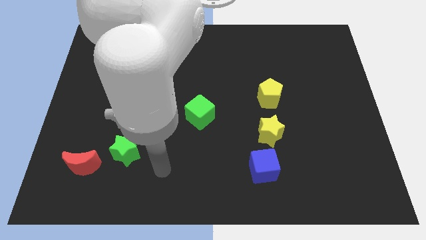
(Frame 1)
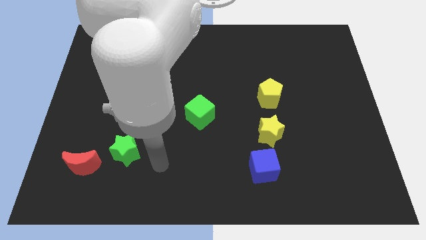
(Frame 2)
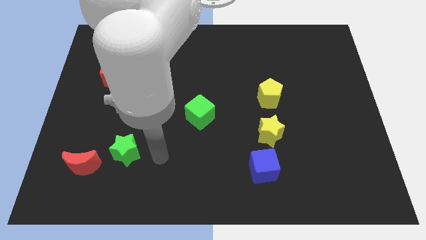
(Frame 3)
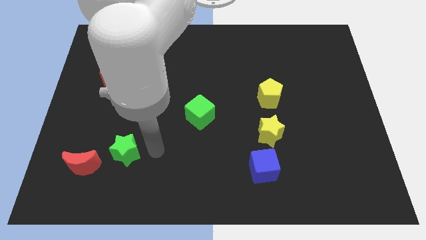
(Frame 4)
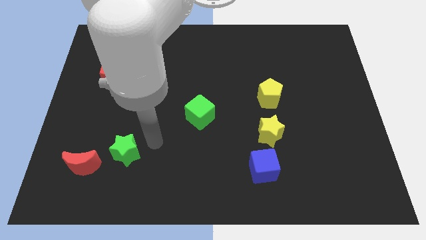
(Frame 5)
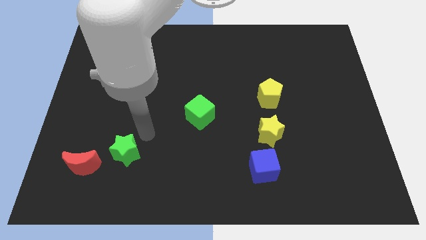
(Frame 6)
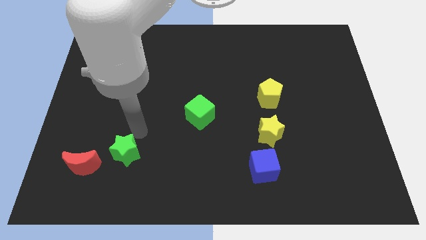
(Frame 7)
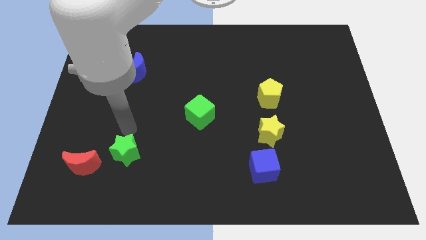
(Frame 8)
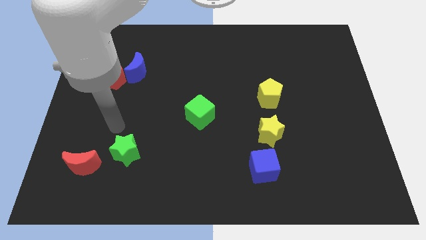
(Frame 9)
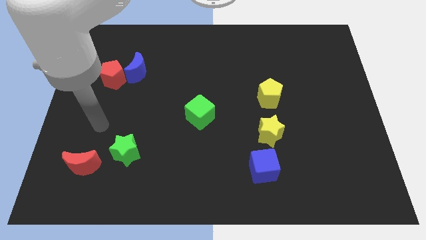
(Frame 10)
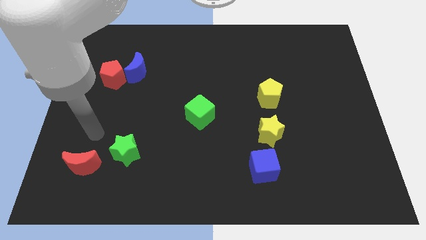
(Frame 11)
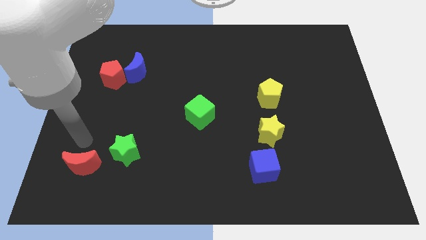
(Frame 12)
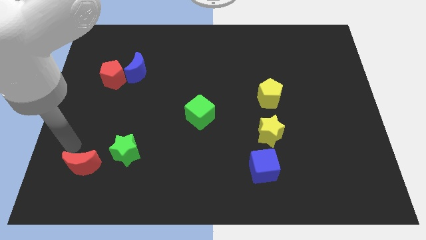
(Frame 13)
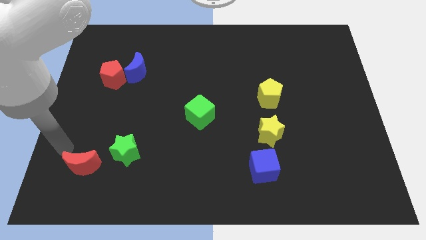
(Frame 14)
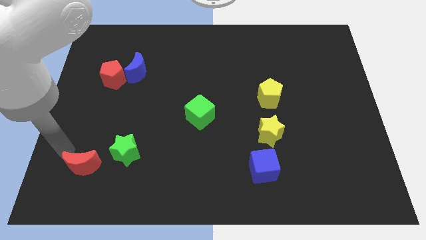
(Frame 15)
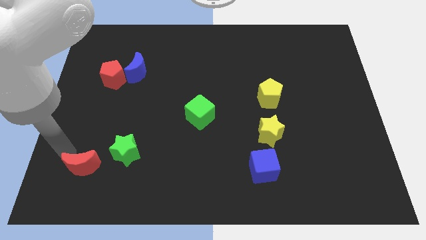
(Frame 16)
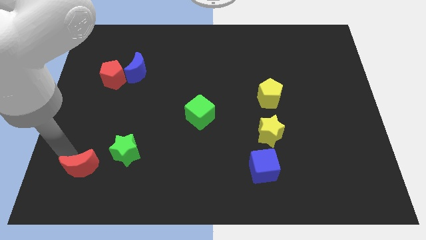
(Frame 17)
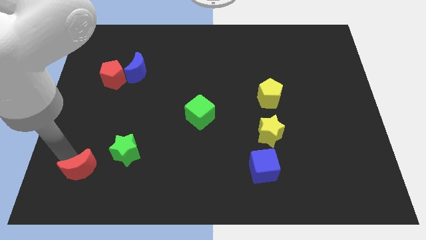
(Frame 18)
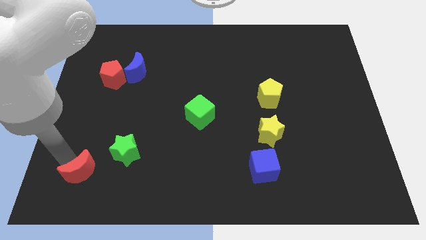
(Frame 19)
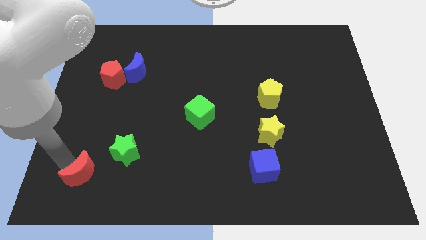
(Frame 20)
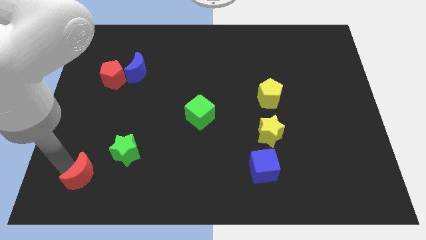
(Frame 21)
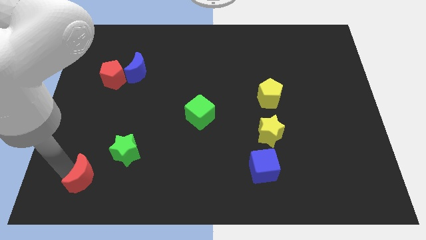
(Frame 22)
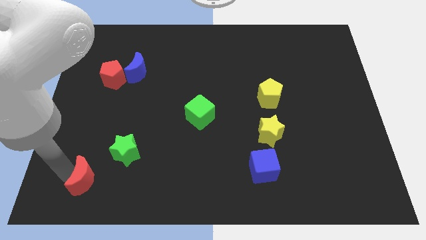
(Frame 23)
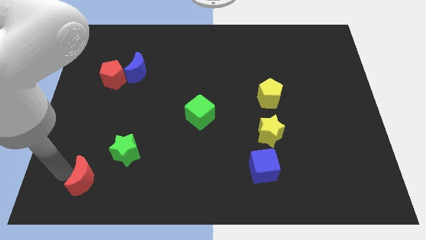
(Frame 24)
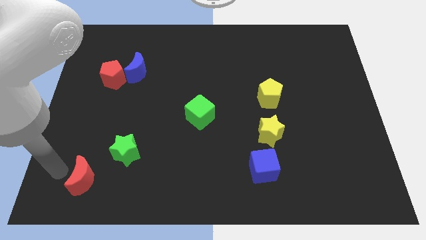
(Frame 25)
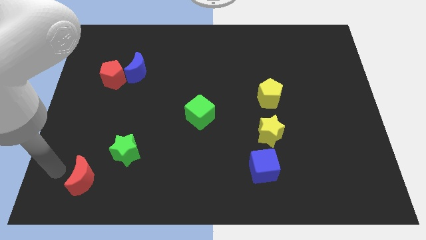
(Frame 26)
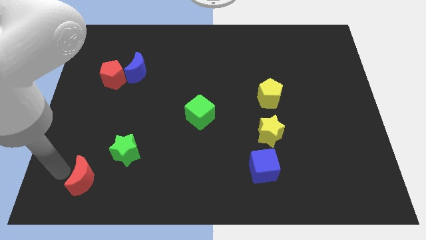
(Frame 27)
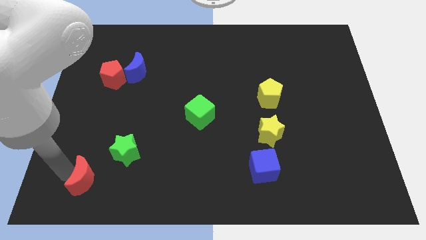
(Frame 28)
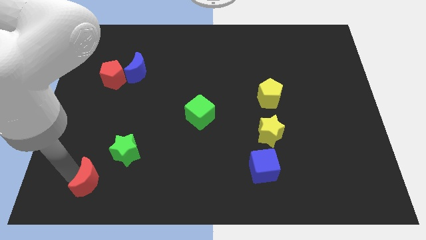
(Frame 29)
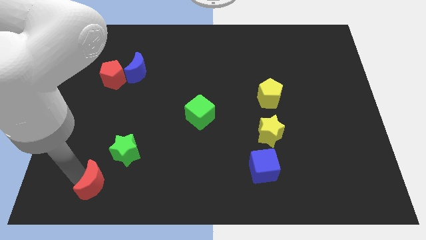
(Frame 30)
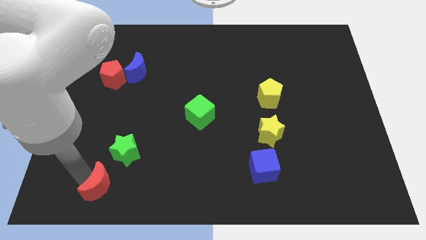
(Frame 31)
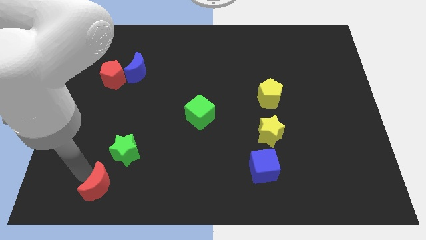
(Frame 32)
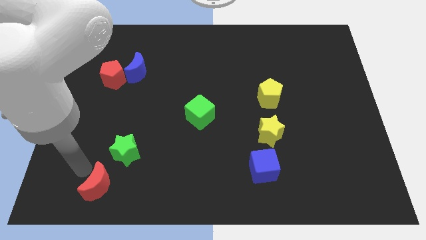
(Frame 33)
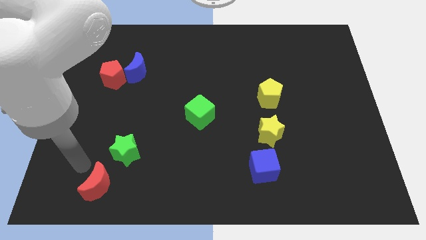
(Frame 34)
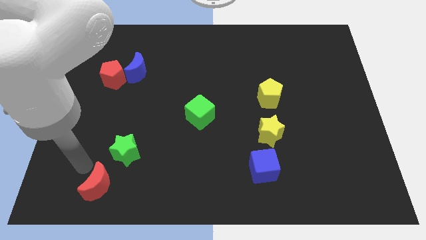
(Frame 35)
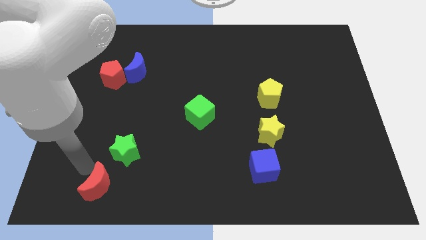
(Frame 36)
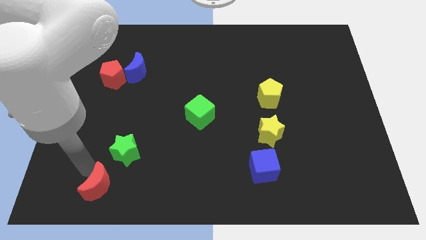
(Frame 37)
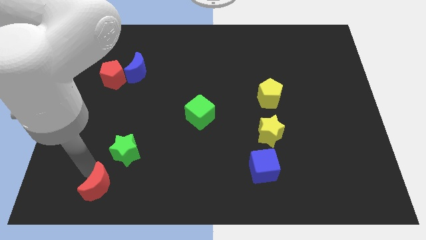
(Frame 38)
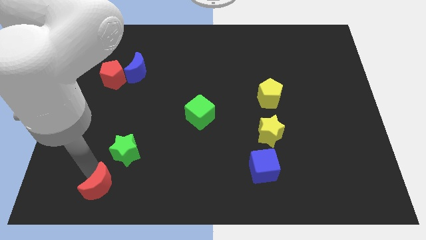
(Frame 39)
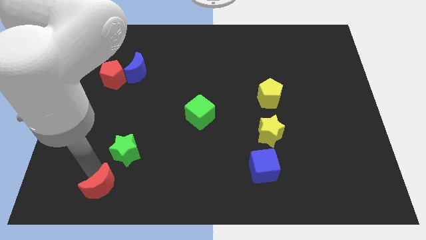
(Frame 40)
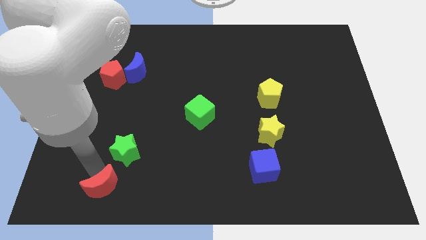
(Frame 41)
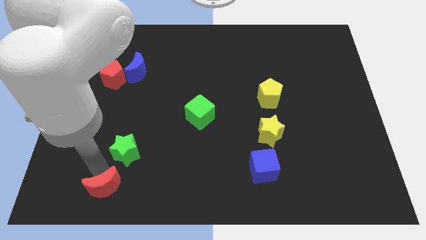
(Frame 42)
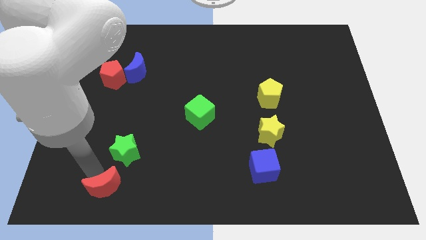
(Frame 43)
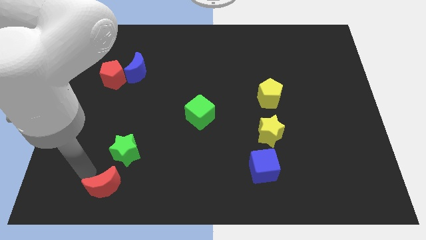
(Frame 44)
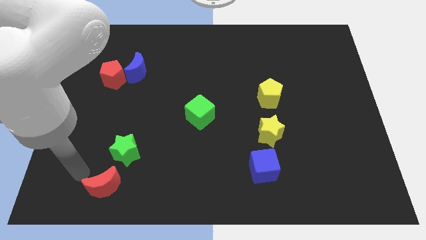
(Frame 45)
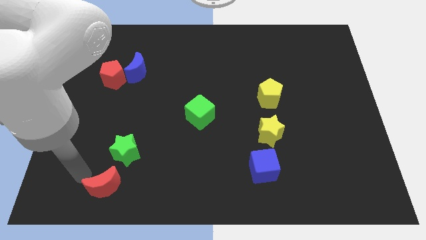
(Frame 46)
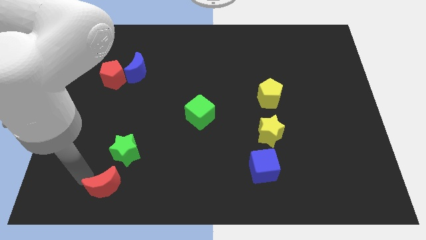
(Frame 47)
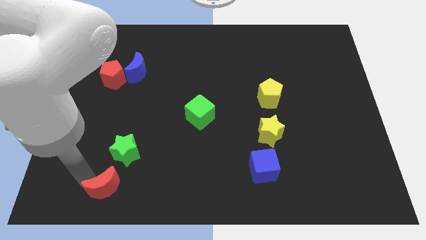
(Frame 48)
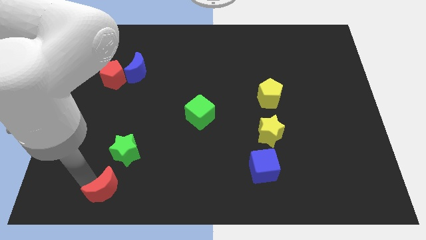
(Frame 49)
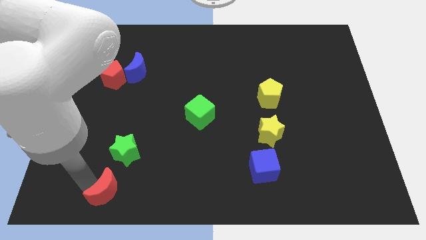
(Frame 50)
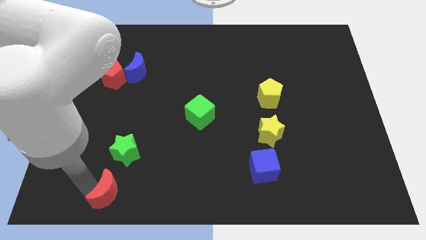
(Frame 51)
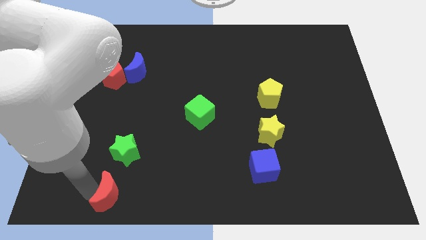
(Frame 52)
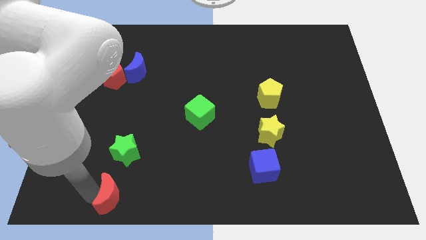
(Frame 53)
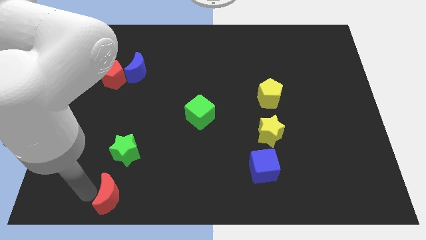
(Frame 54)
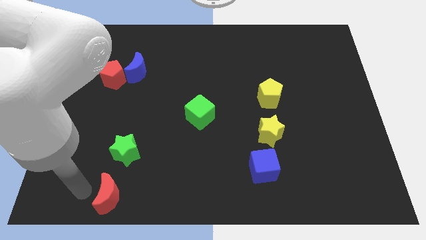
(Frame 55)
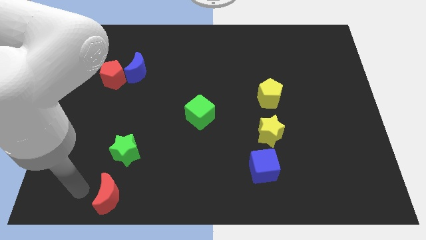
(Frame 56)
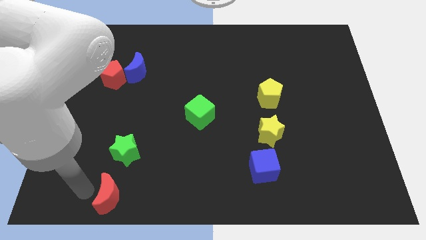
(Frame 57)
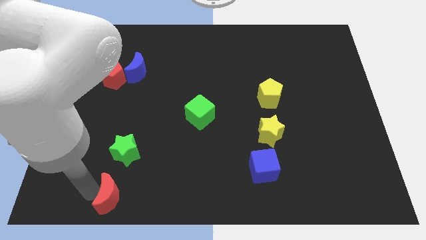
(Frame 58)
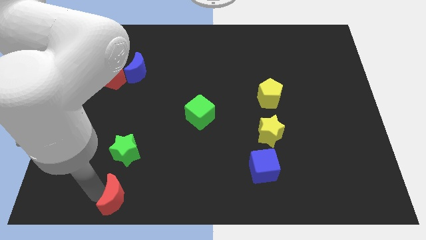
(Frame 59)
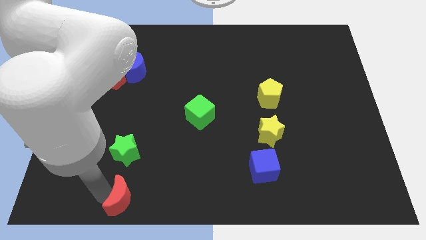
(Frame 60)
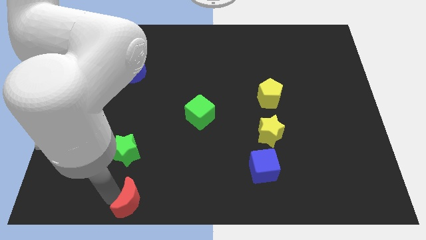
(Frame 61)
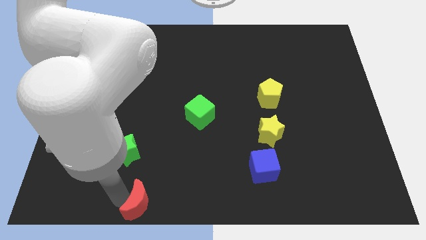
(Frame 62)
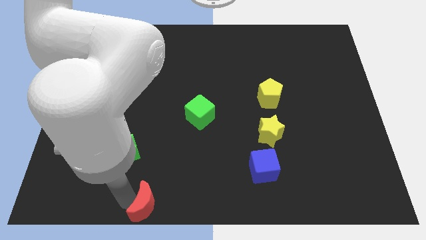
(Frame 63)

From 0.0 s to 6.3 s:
move the red moon to the bottom side
